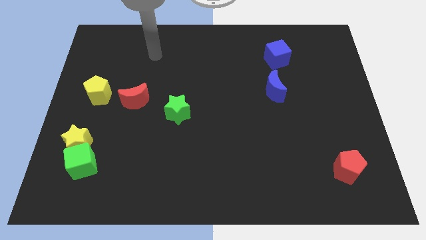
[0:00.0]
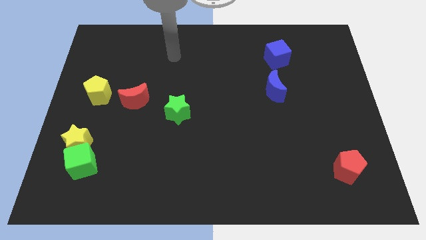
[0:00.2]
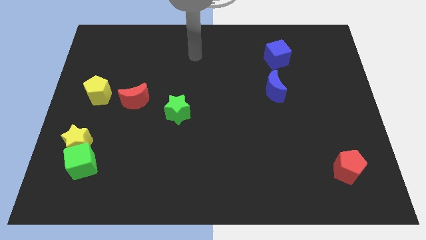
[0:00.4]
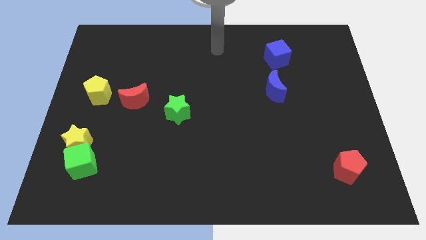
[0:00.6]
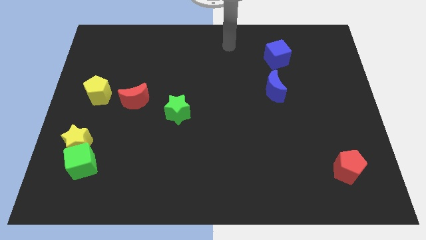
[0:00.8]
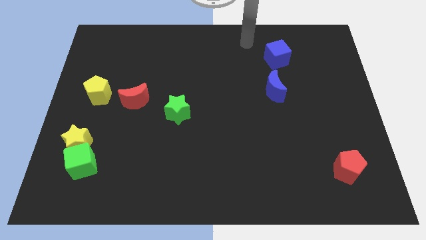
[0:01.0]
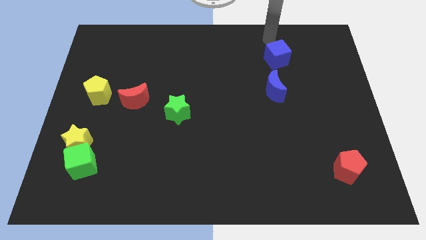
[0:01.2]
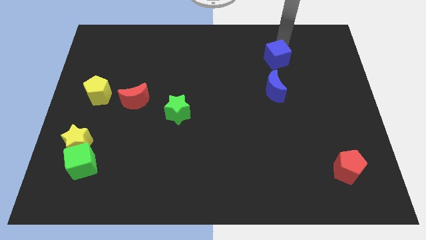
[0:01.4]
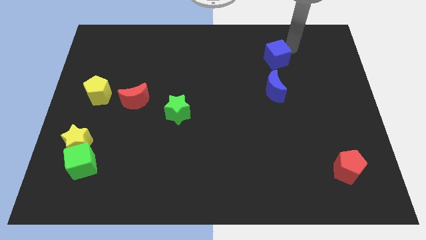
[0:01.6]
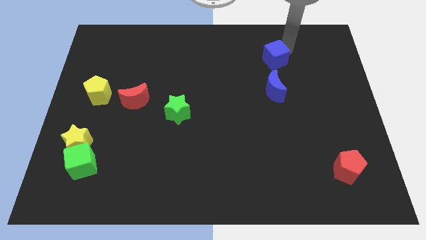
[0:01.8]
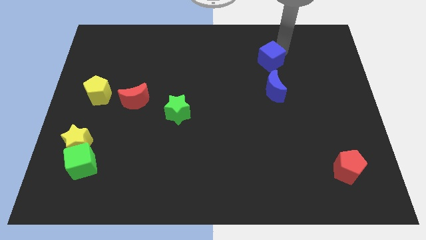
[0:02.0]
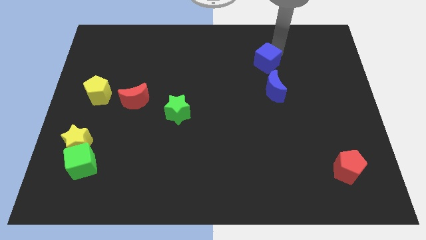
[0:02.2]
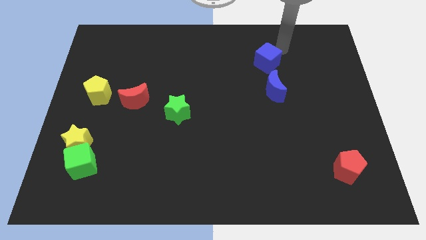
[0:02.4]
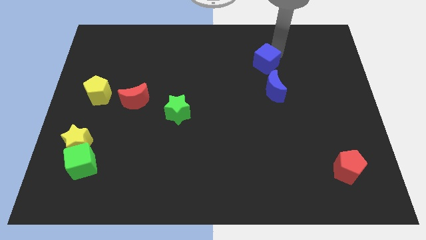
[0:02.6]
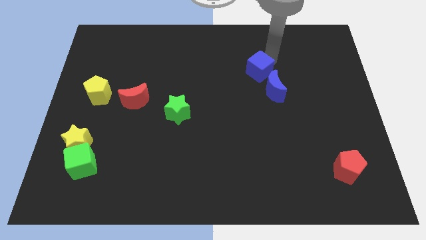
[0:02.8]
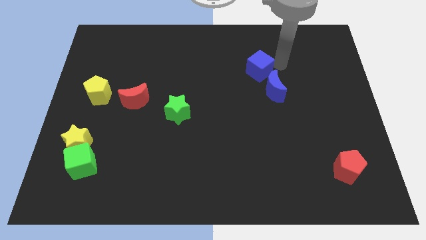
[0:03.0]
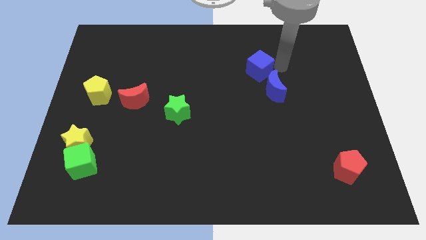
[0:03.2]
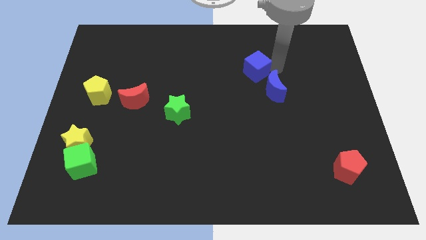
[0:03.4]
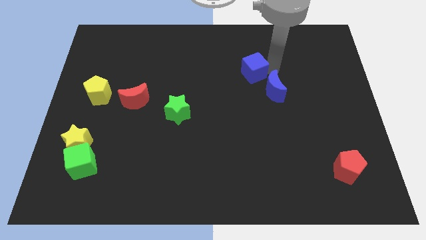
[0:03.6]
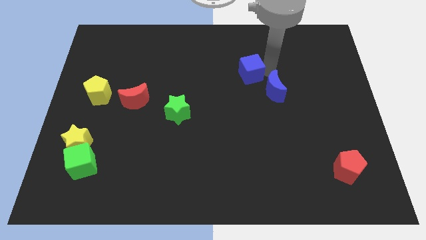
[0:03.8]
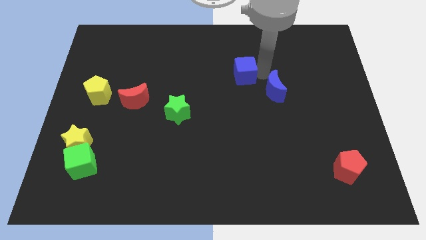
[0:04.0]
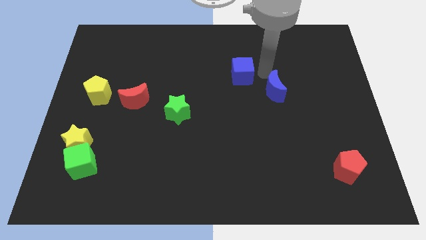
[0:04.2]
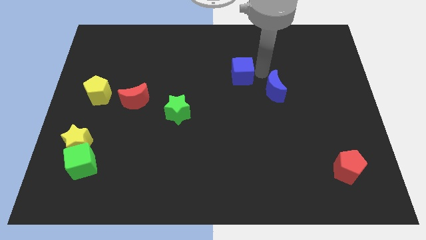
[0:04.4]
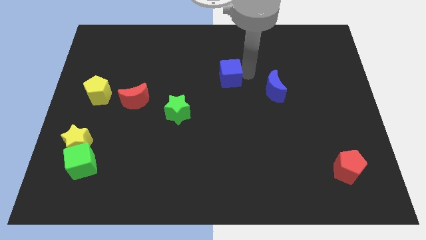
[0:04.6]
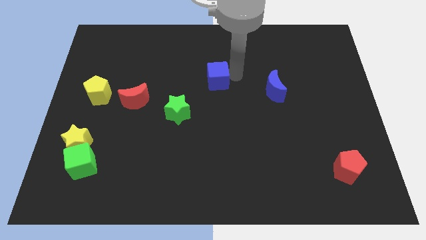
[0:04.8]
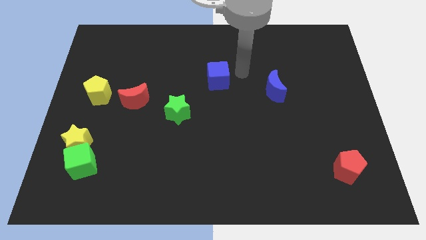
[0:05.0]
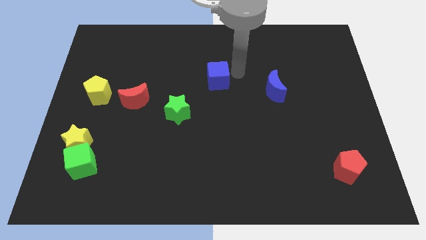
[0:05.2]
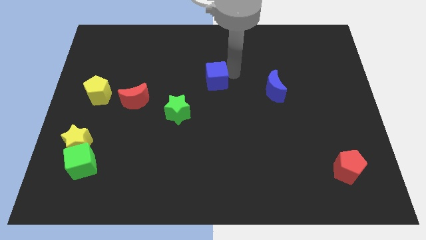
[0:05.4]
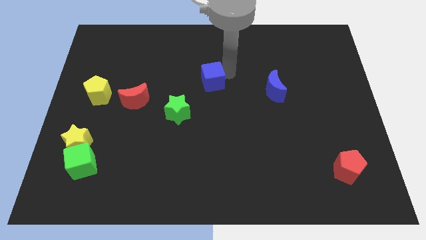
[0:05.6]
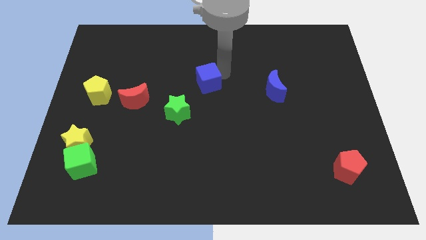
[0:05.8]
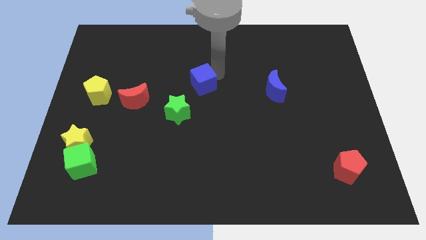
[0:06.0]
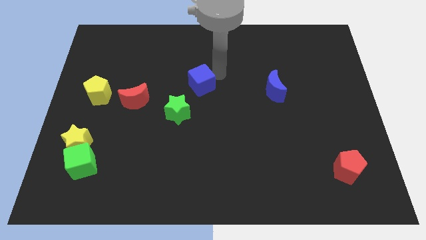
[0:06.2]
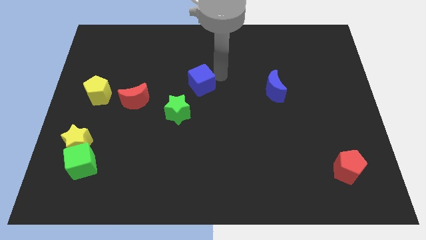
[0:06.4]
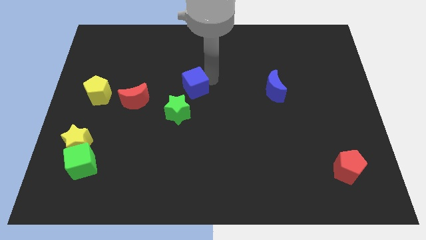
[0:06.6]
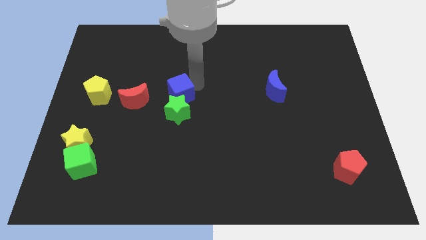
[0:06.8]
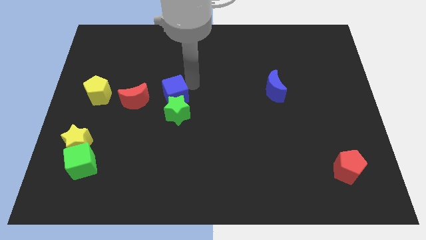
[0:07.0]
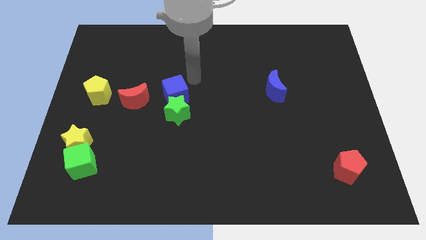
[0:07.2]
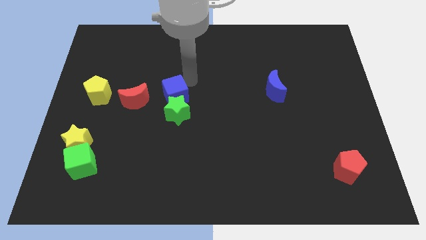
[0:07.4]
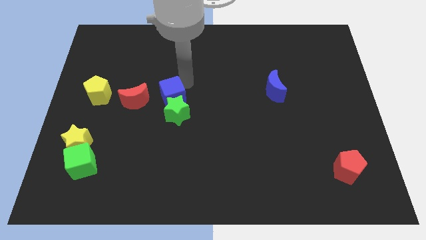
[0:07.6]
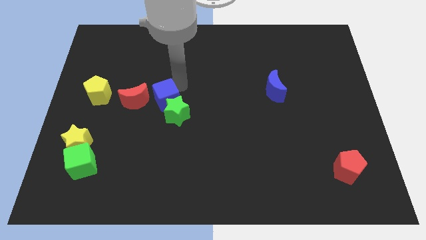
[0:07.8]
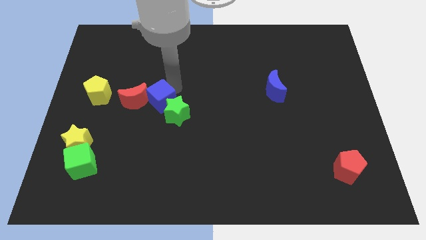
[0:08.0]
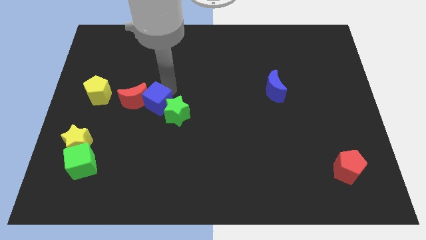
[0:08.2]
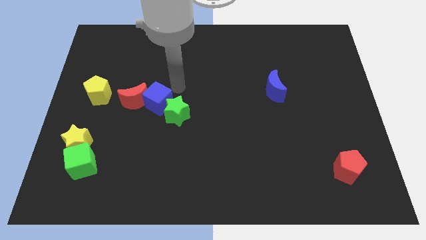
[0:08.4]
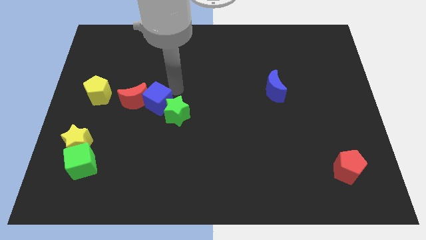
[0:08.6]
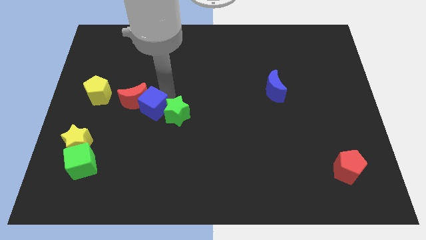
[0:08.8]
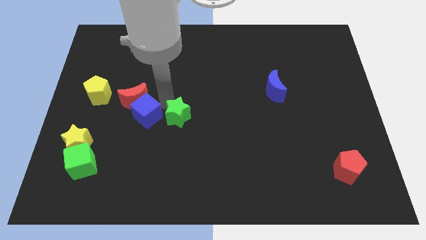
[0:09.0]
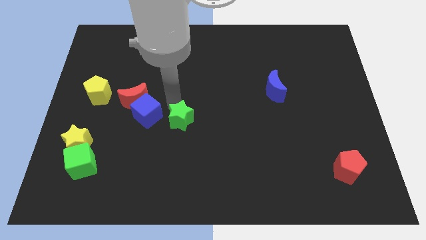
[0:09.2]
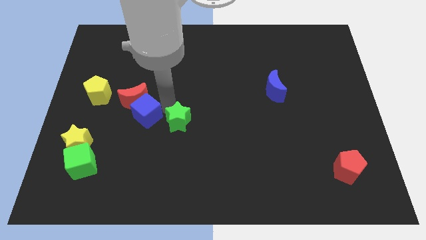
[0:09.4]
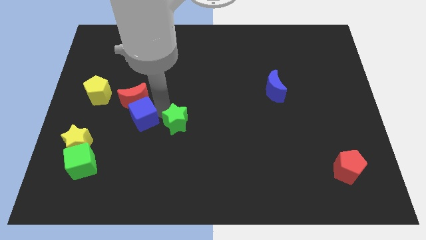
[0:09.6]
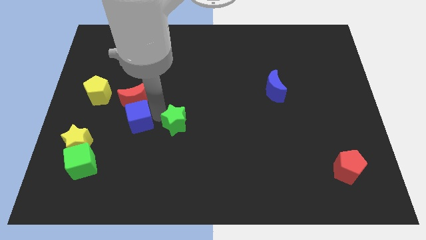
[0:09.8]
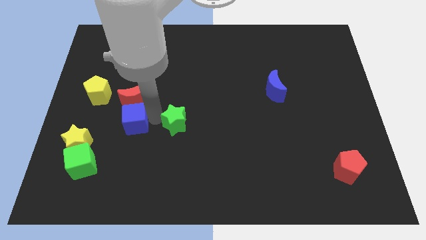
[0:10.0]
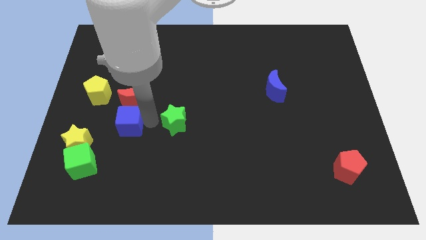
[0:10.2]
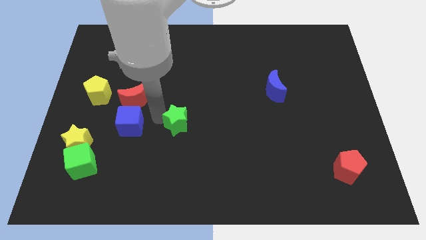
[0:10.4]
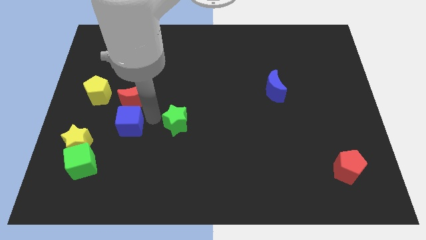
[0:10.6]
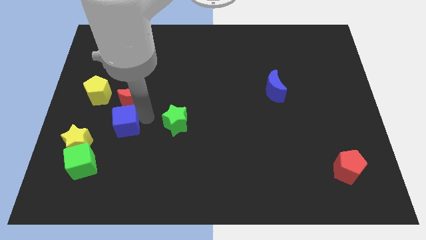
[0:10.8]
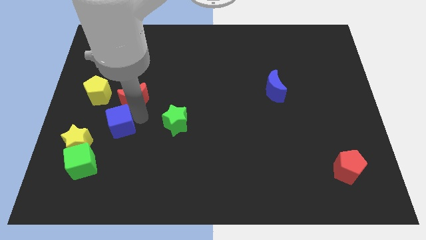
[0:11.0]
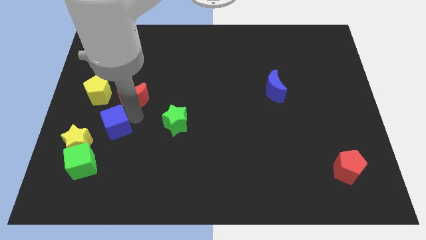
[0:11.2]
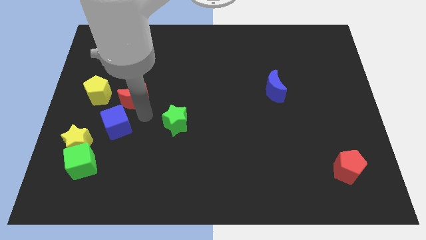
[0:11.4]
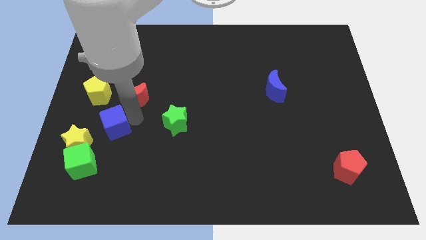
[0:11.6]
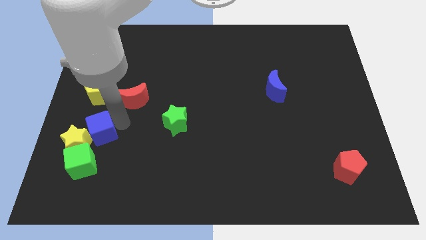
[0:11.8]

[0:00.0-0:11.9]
move the blue cube close to the yellow star

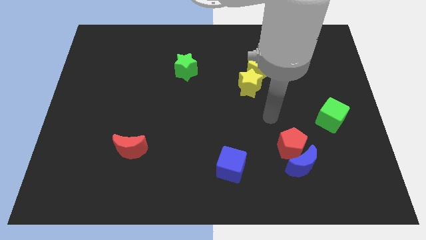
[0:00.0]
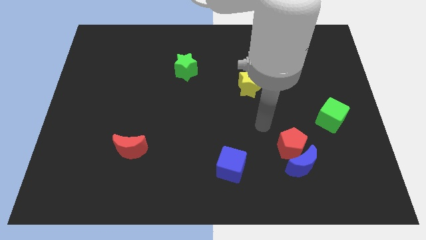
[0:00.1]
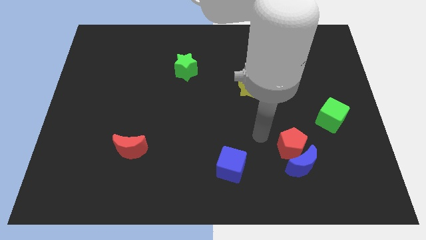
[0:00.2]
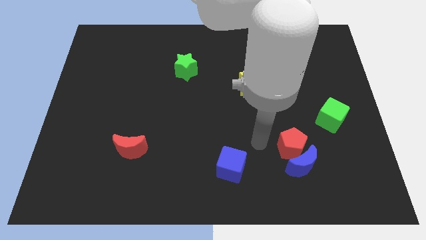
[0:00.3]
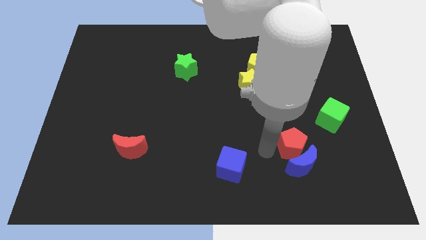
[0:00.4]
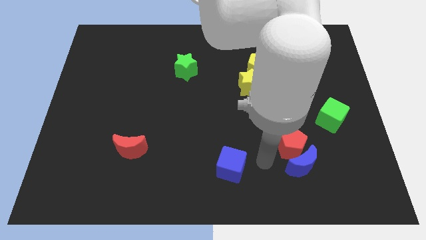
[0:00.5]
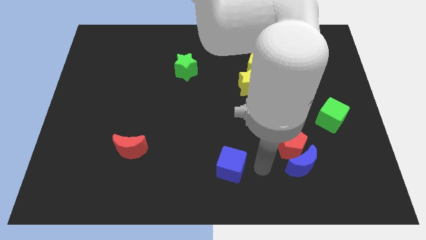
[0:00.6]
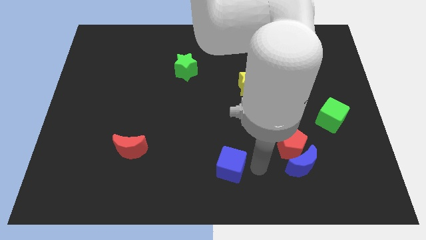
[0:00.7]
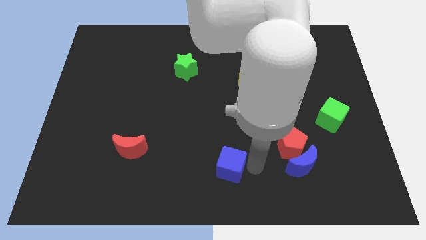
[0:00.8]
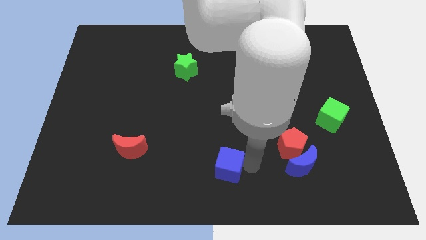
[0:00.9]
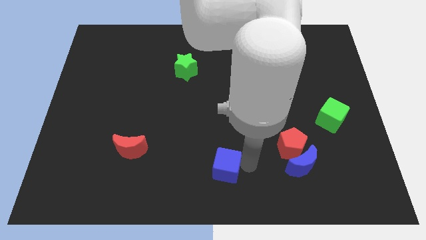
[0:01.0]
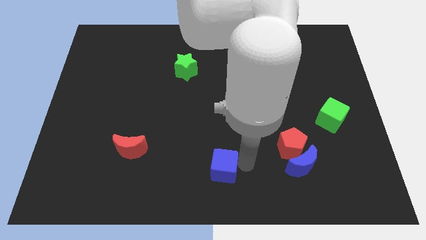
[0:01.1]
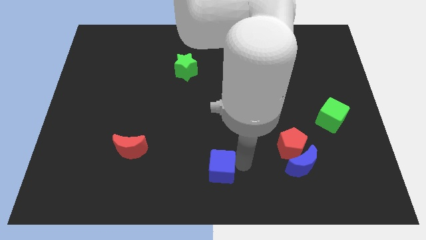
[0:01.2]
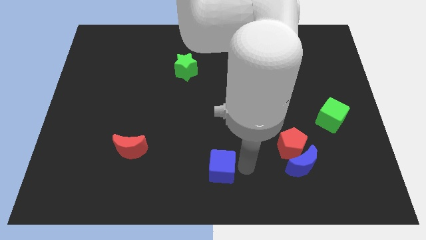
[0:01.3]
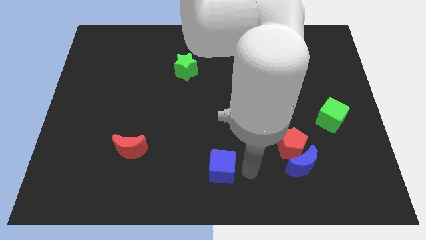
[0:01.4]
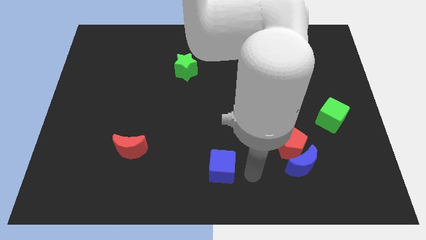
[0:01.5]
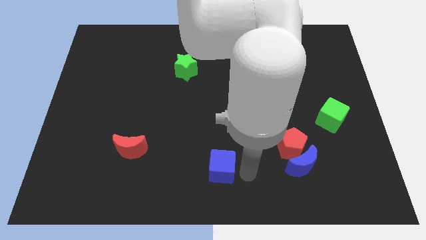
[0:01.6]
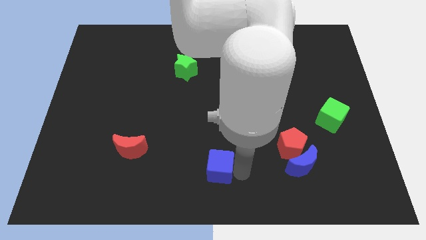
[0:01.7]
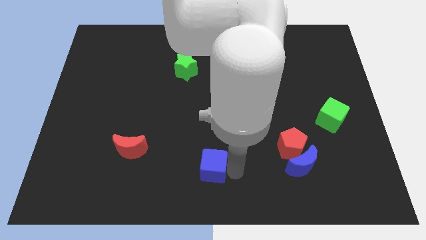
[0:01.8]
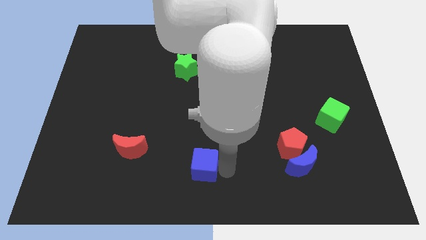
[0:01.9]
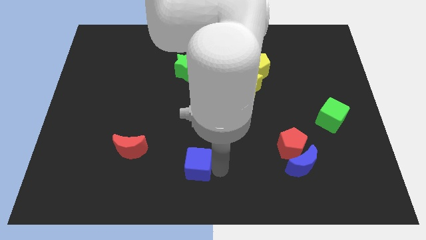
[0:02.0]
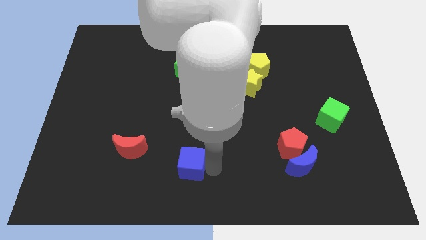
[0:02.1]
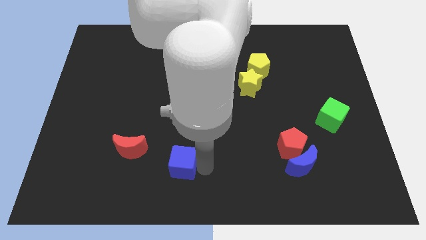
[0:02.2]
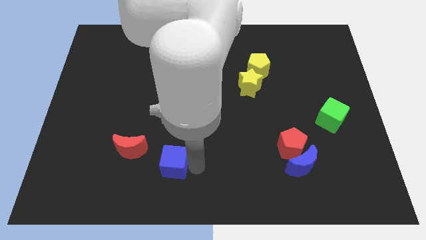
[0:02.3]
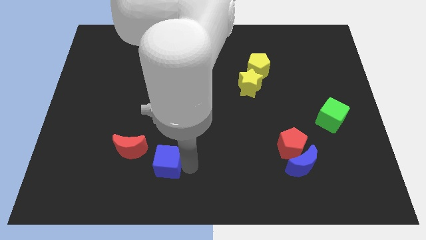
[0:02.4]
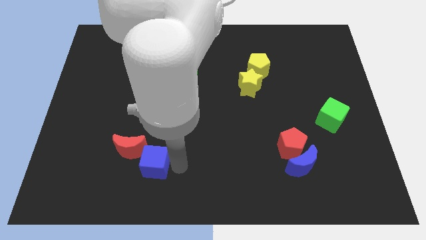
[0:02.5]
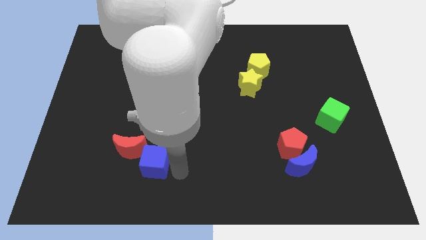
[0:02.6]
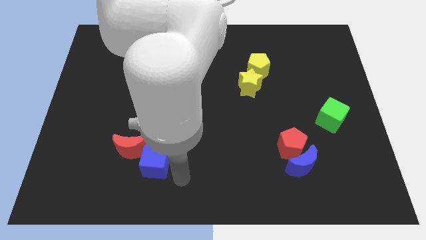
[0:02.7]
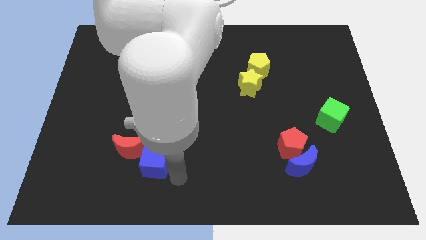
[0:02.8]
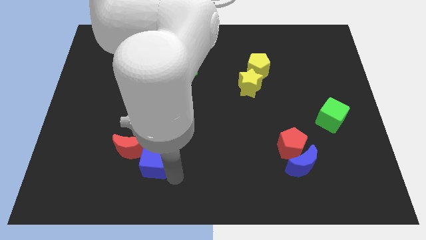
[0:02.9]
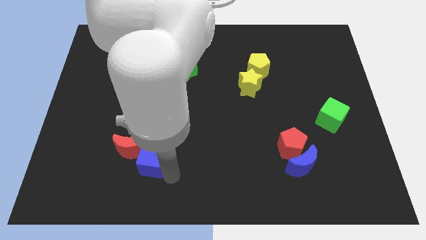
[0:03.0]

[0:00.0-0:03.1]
put the blue cube close to the red moon
